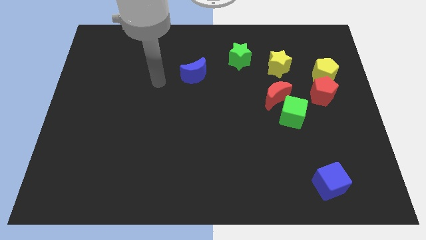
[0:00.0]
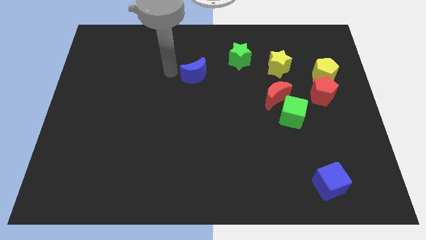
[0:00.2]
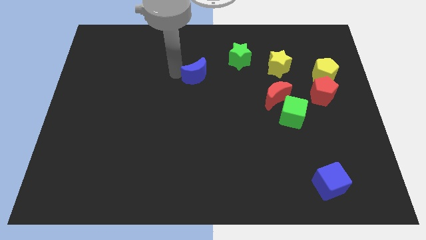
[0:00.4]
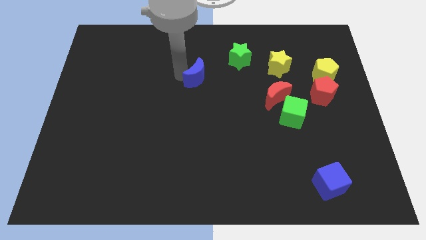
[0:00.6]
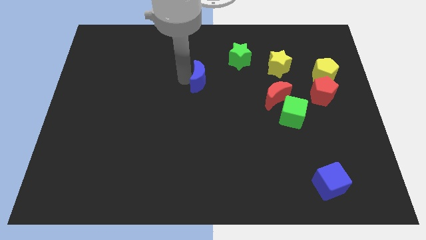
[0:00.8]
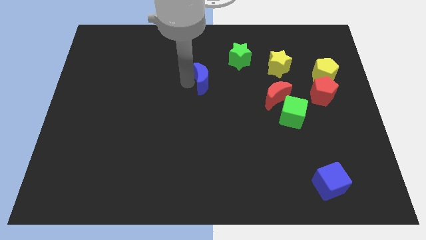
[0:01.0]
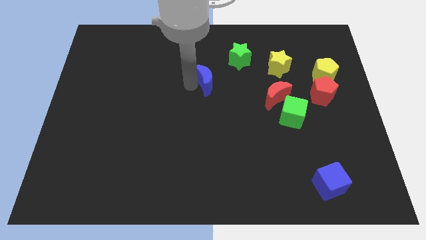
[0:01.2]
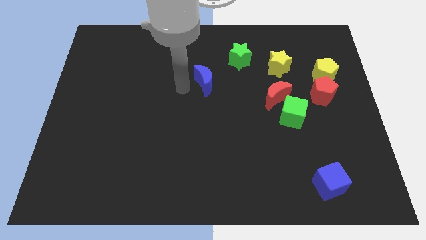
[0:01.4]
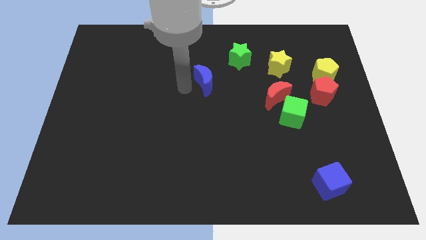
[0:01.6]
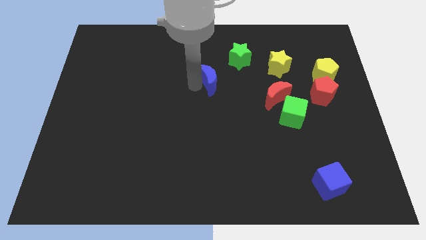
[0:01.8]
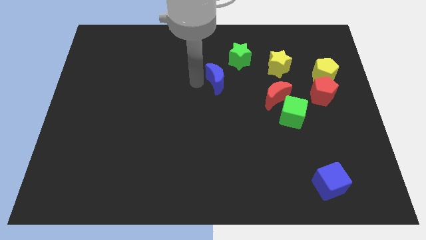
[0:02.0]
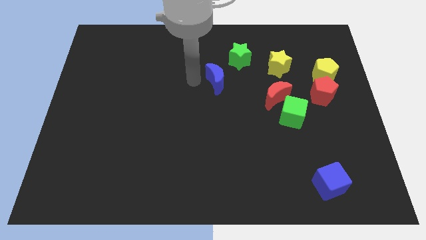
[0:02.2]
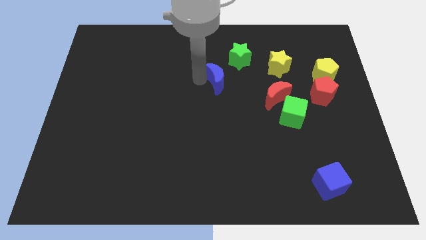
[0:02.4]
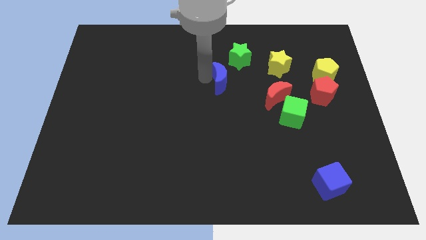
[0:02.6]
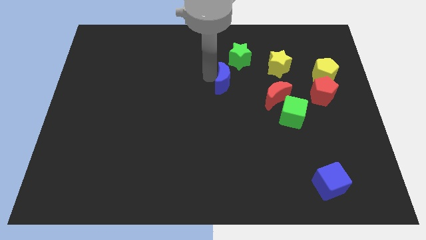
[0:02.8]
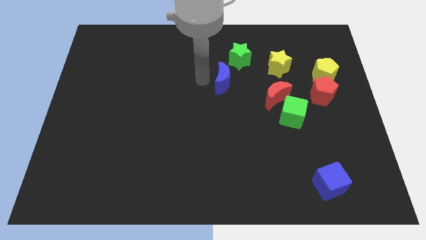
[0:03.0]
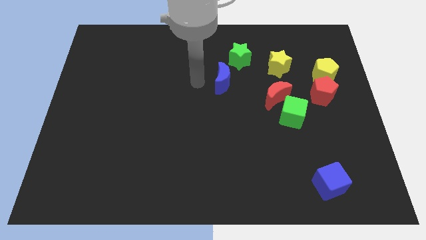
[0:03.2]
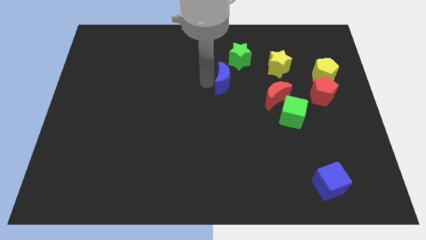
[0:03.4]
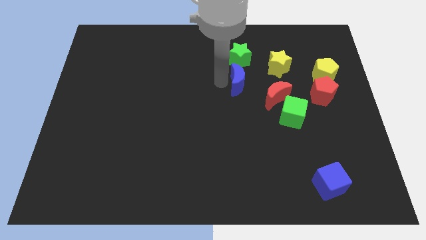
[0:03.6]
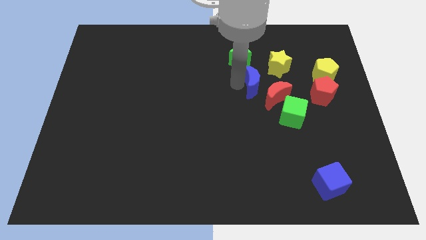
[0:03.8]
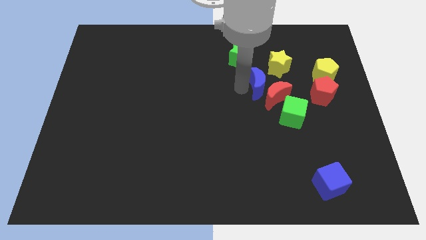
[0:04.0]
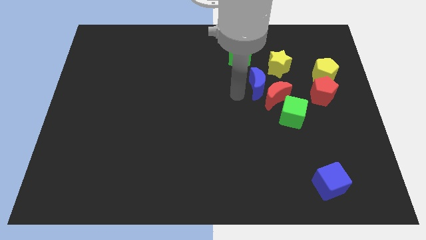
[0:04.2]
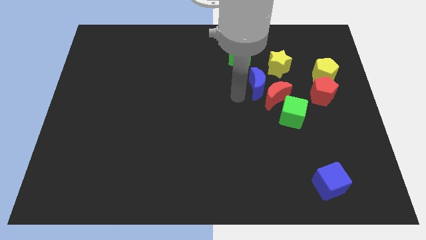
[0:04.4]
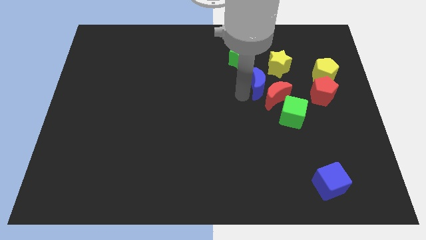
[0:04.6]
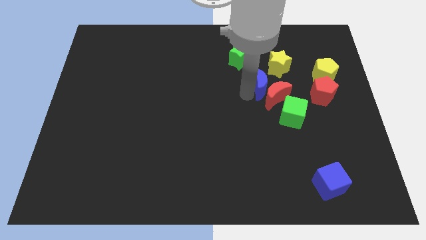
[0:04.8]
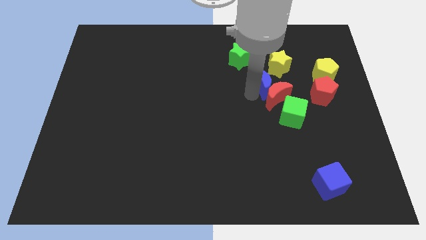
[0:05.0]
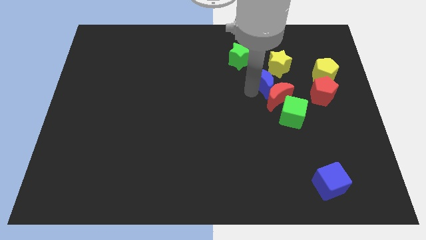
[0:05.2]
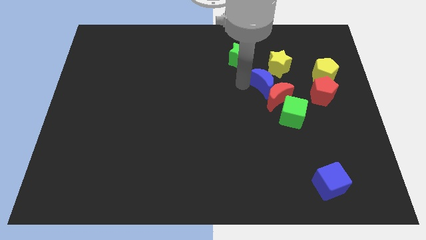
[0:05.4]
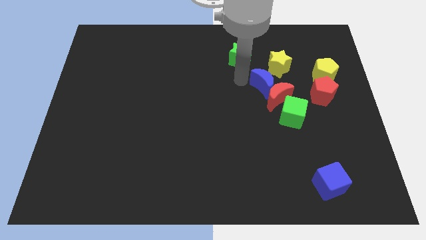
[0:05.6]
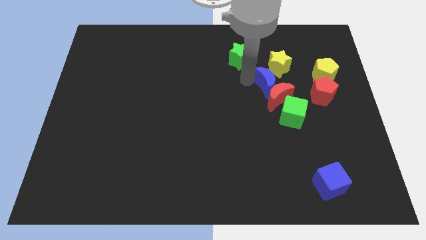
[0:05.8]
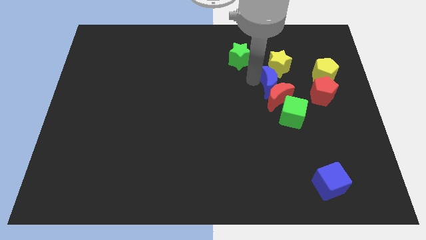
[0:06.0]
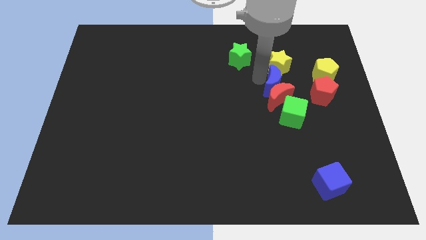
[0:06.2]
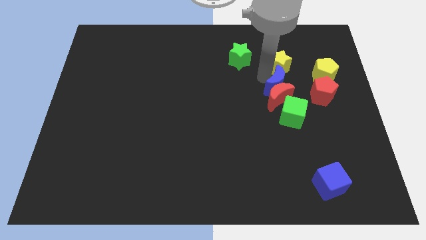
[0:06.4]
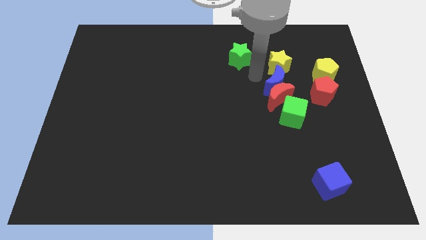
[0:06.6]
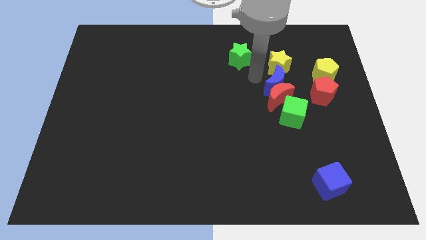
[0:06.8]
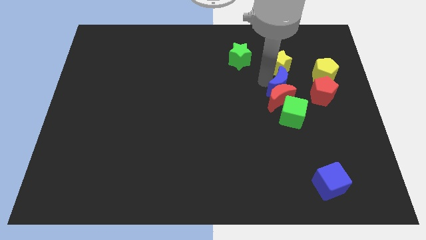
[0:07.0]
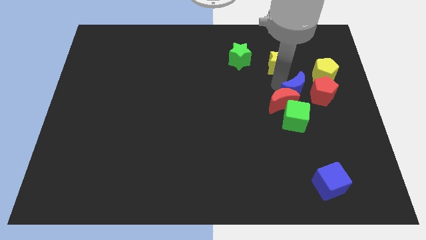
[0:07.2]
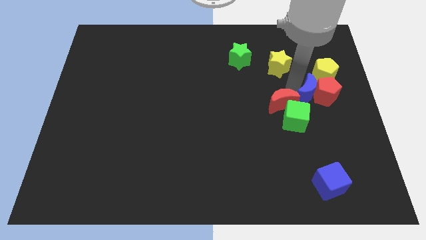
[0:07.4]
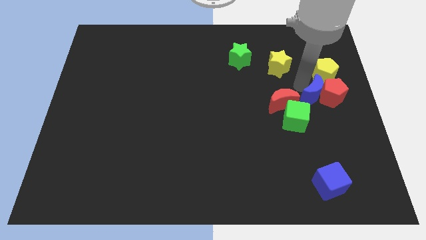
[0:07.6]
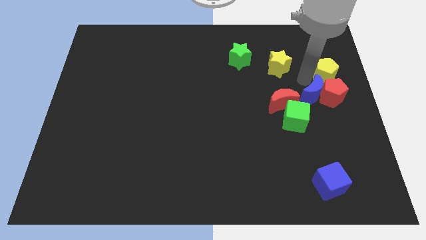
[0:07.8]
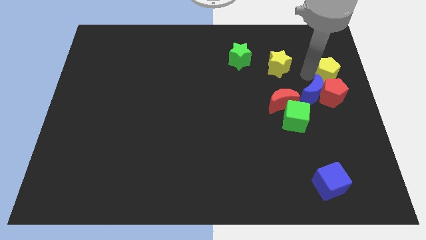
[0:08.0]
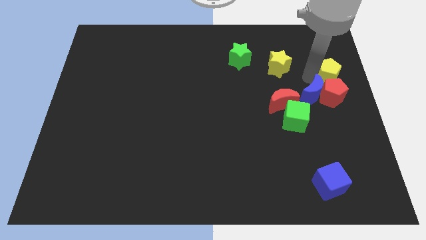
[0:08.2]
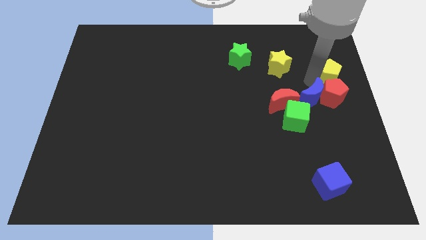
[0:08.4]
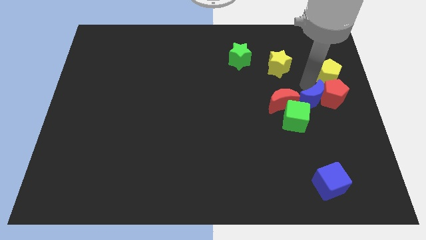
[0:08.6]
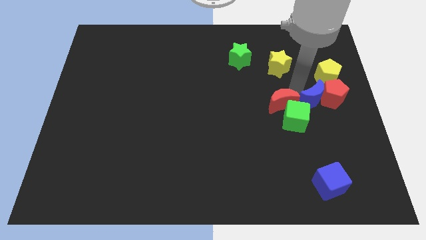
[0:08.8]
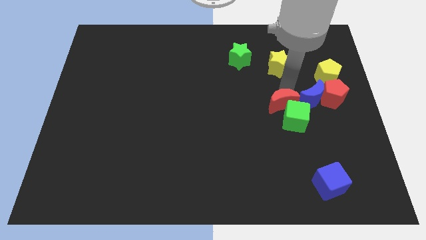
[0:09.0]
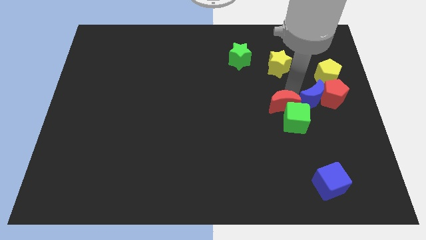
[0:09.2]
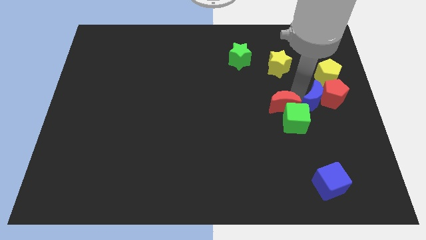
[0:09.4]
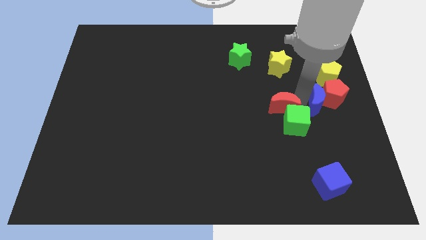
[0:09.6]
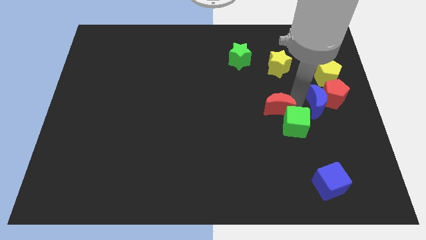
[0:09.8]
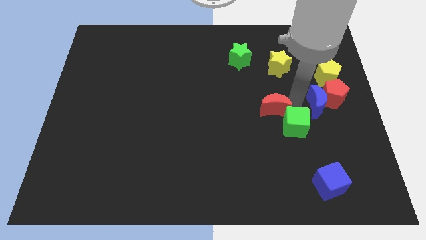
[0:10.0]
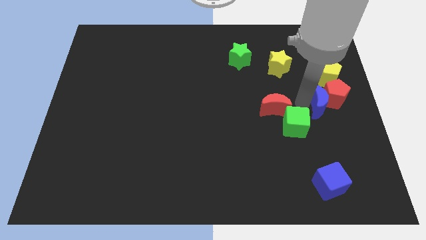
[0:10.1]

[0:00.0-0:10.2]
slide the blue moon to the right side of the board

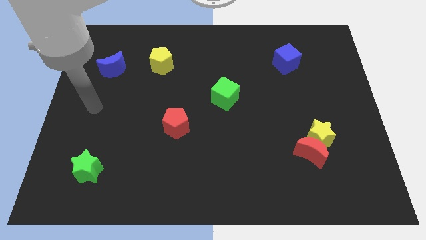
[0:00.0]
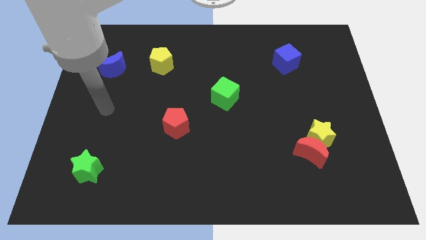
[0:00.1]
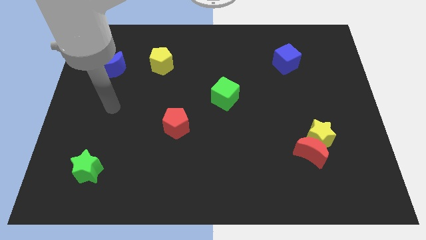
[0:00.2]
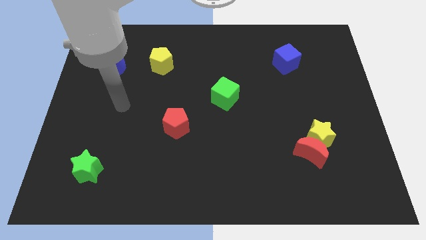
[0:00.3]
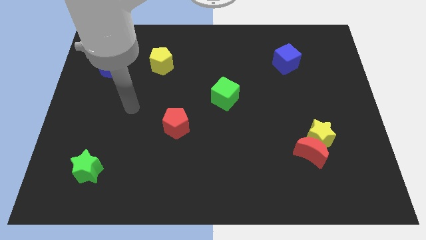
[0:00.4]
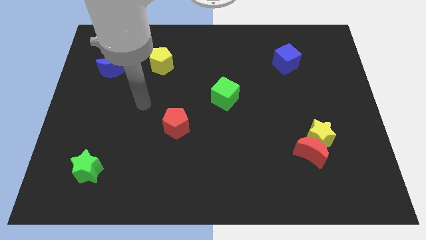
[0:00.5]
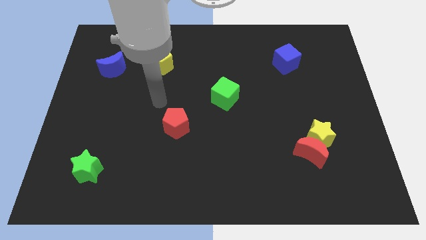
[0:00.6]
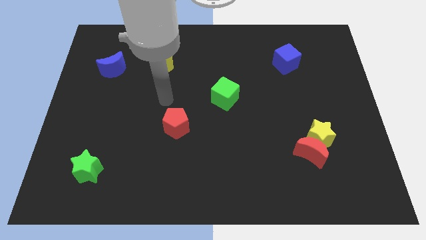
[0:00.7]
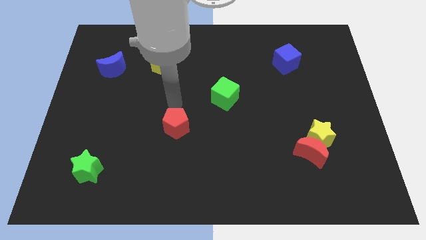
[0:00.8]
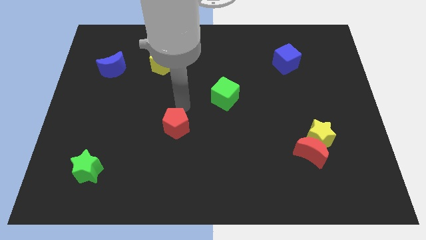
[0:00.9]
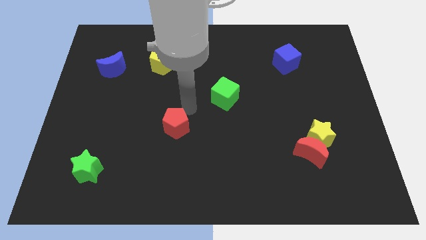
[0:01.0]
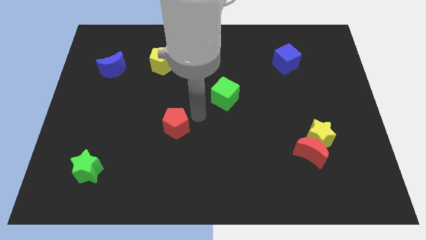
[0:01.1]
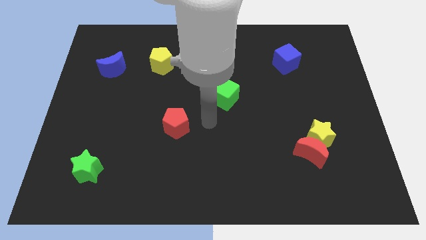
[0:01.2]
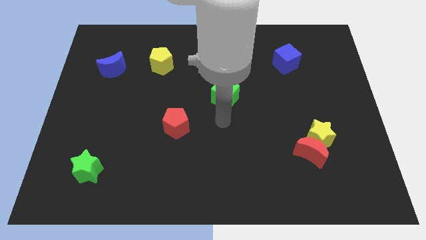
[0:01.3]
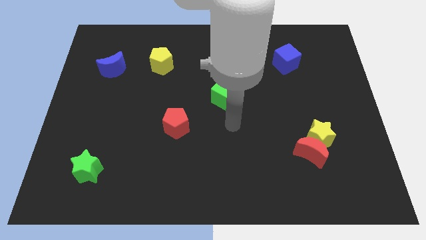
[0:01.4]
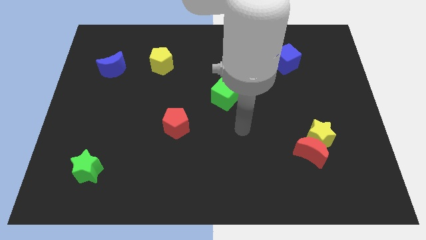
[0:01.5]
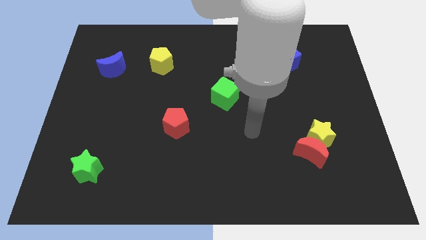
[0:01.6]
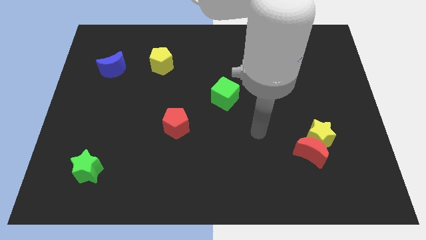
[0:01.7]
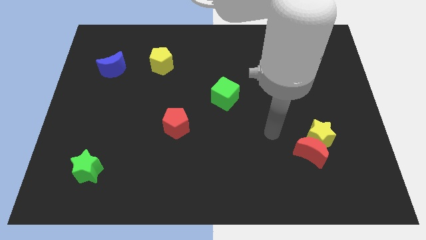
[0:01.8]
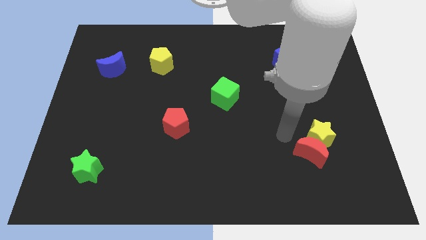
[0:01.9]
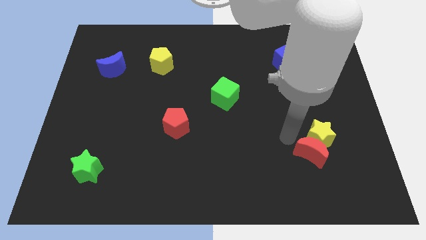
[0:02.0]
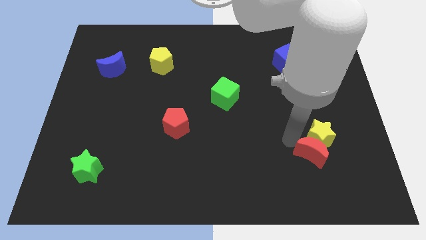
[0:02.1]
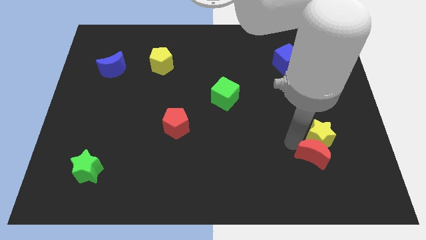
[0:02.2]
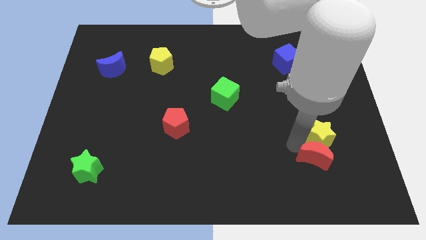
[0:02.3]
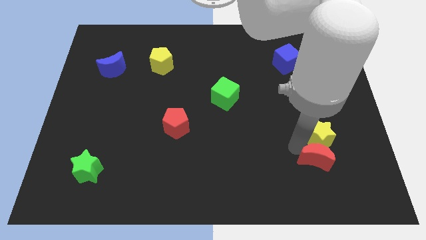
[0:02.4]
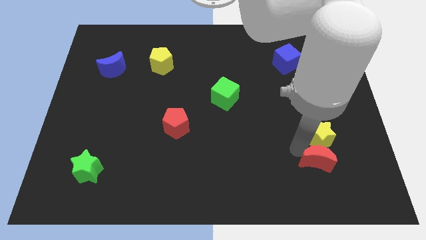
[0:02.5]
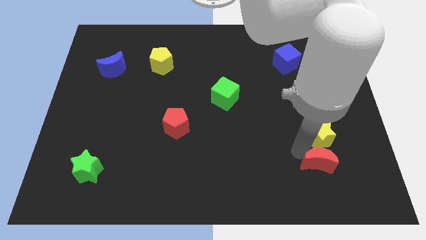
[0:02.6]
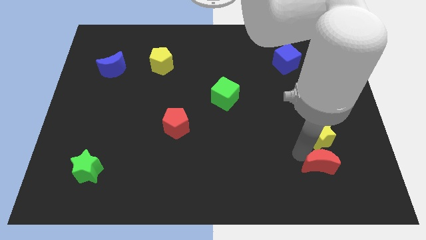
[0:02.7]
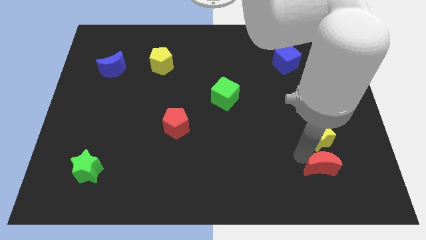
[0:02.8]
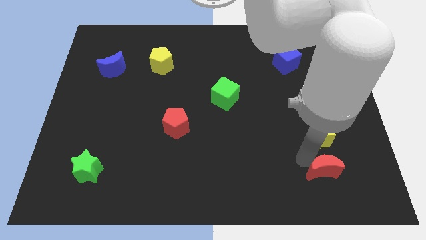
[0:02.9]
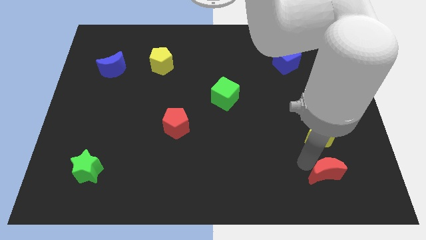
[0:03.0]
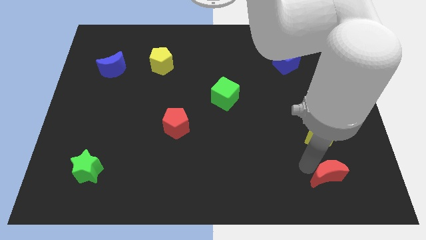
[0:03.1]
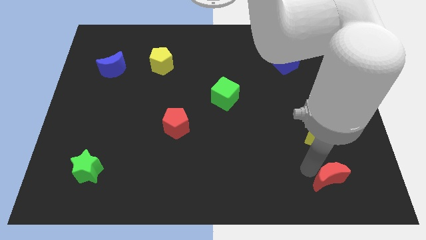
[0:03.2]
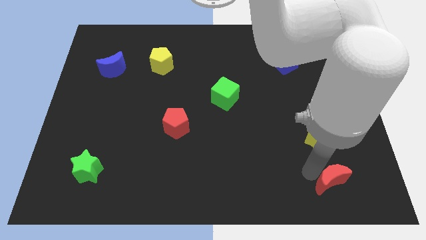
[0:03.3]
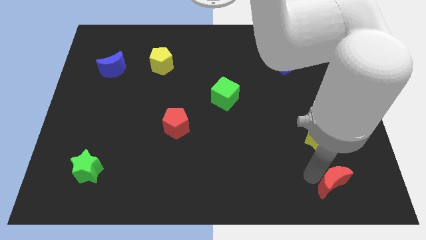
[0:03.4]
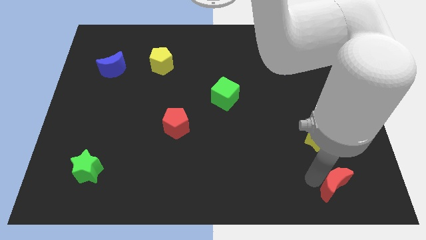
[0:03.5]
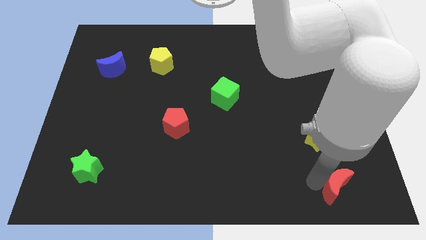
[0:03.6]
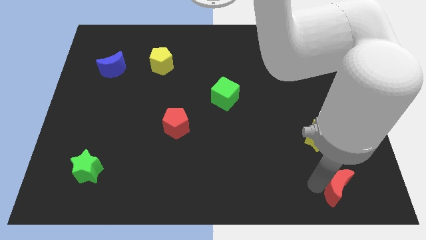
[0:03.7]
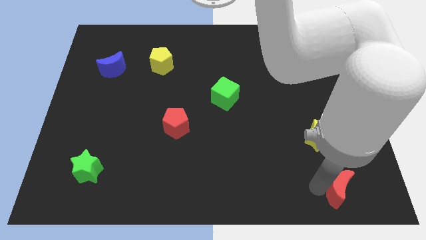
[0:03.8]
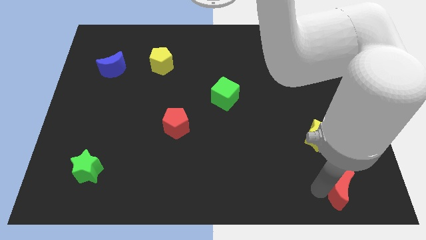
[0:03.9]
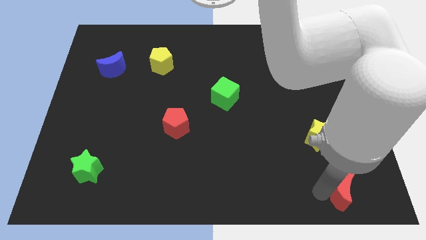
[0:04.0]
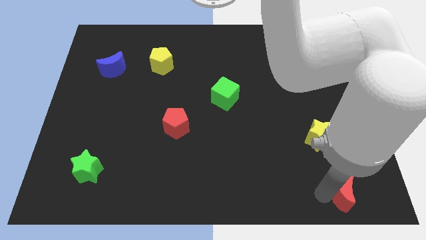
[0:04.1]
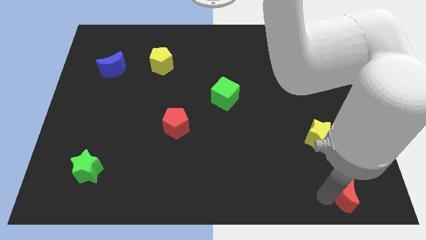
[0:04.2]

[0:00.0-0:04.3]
move the red moon to the bottom right
